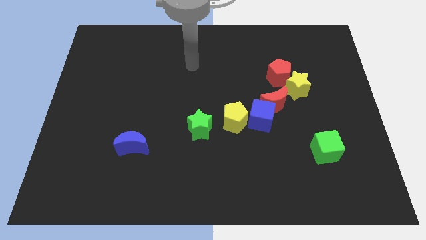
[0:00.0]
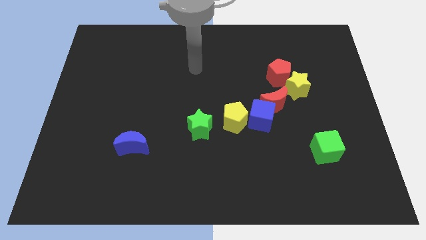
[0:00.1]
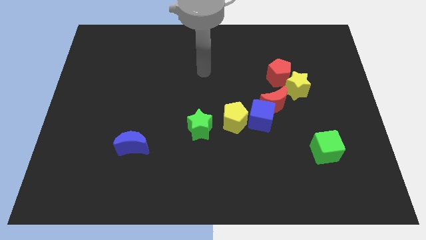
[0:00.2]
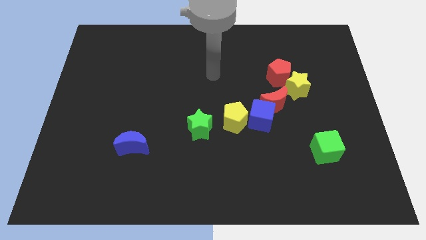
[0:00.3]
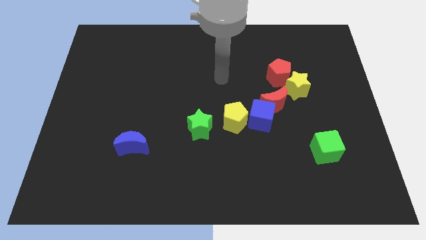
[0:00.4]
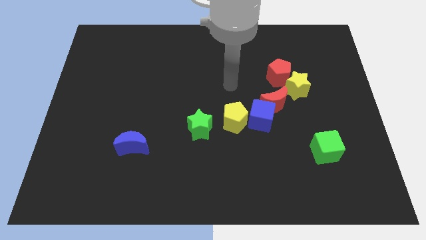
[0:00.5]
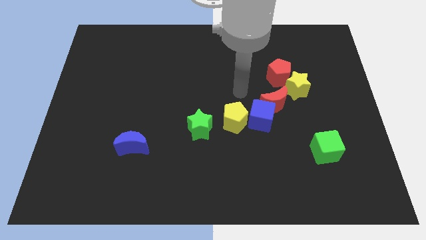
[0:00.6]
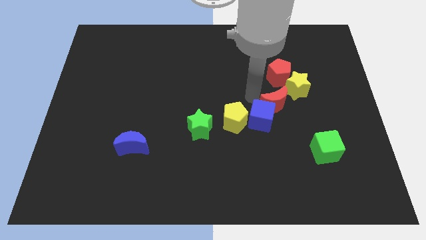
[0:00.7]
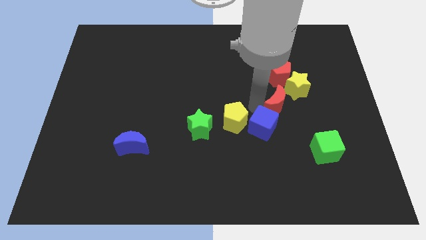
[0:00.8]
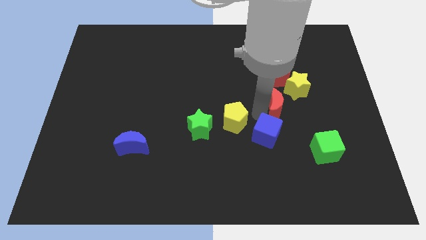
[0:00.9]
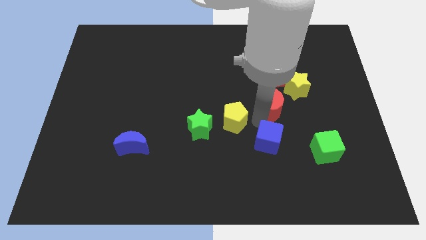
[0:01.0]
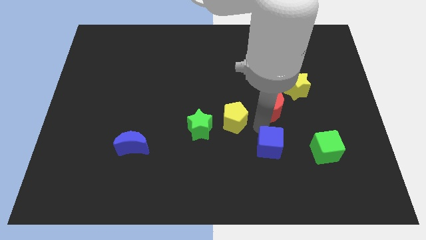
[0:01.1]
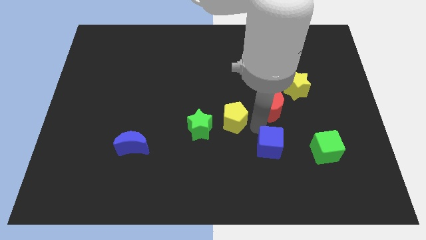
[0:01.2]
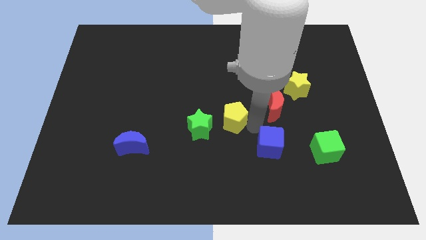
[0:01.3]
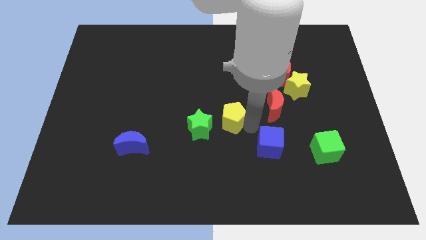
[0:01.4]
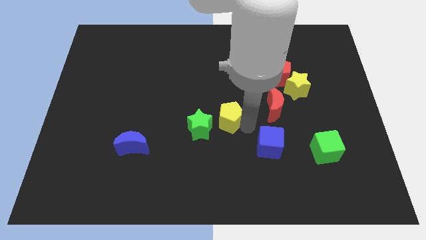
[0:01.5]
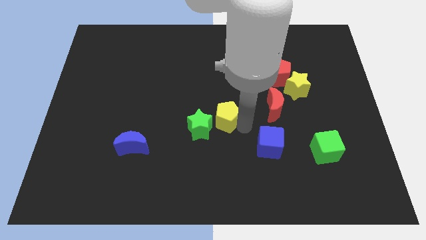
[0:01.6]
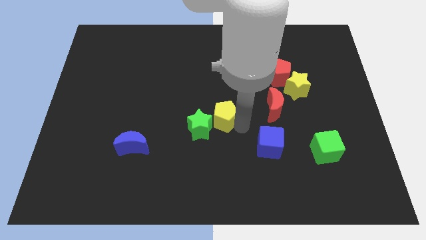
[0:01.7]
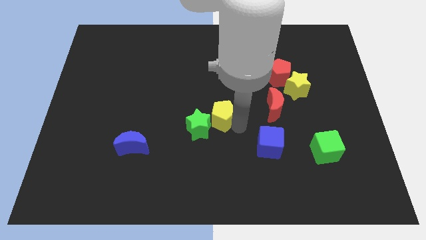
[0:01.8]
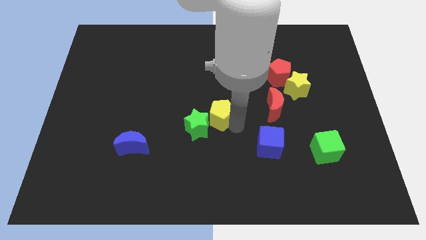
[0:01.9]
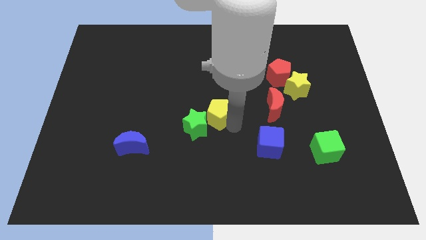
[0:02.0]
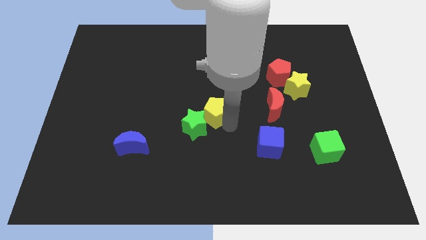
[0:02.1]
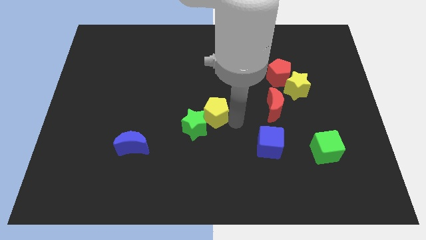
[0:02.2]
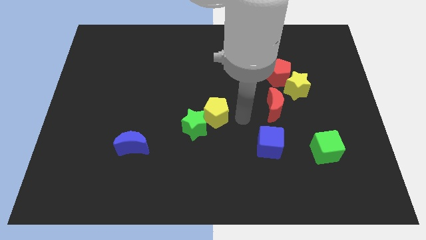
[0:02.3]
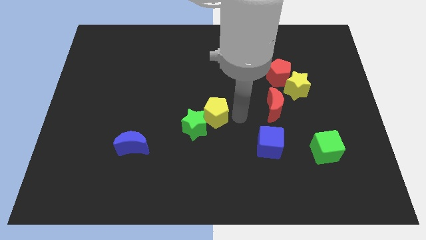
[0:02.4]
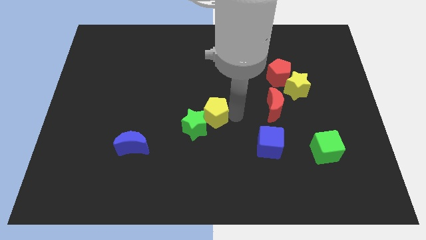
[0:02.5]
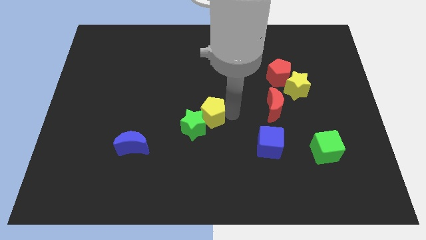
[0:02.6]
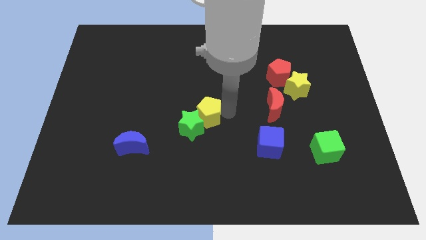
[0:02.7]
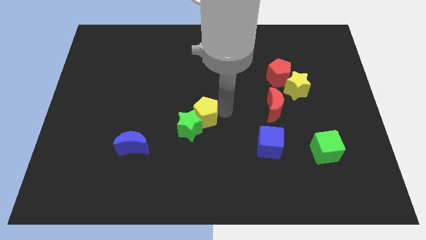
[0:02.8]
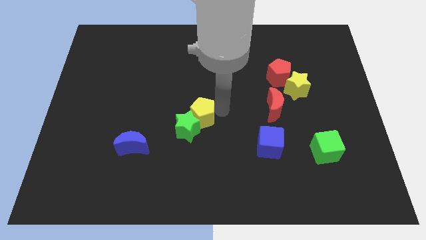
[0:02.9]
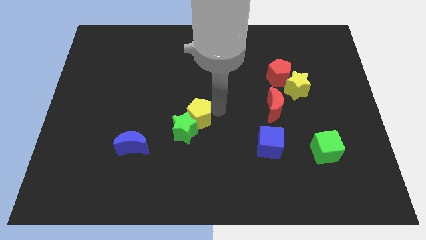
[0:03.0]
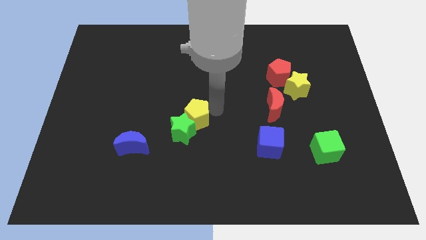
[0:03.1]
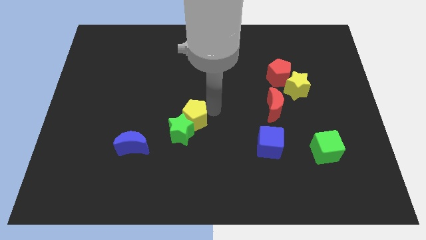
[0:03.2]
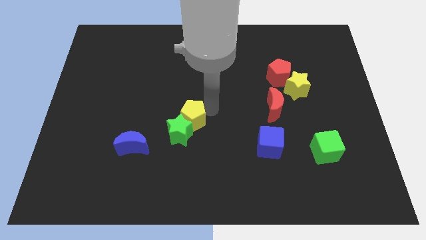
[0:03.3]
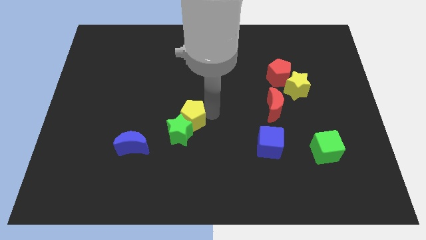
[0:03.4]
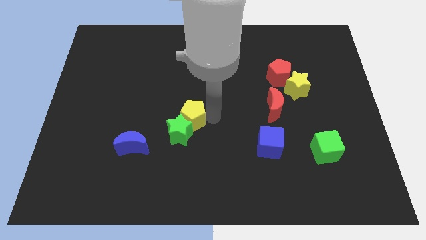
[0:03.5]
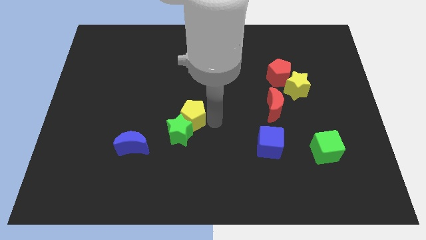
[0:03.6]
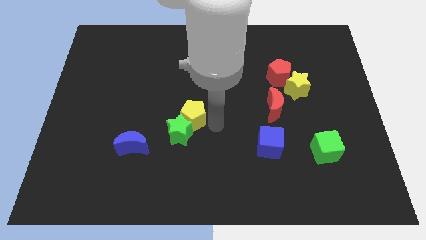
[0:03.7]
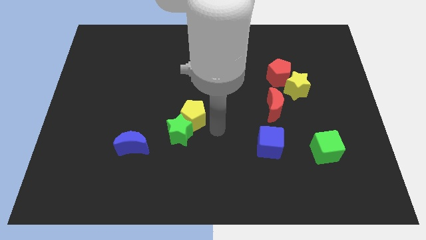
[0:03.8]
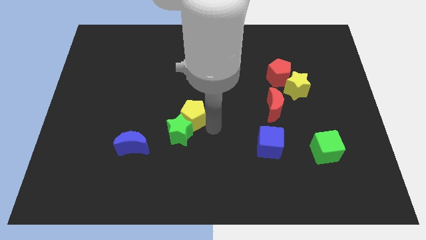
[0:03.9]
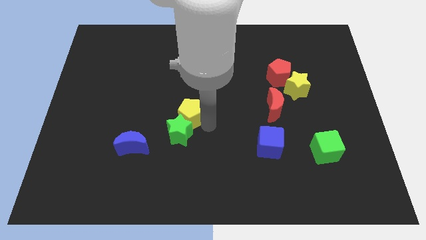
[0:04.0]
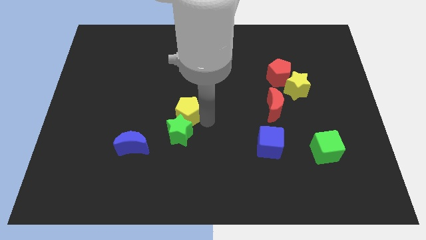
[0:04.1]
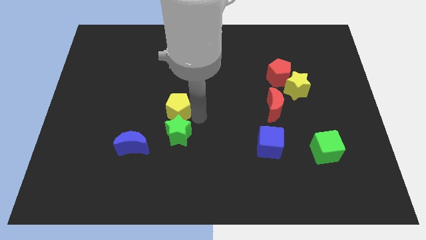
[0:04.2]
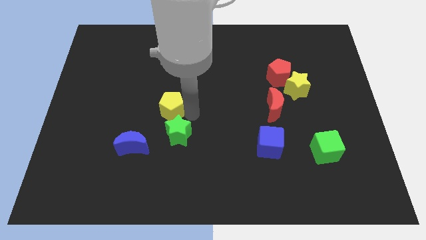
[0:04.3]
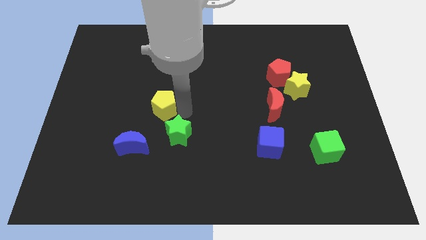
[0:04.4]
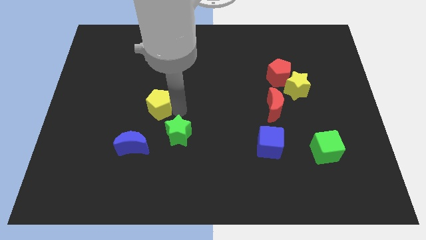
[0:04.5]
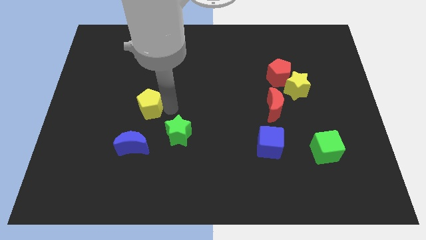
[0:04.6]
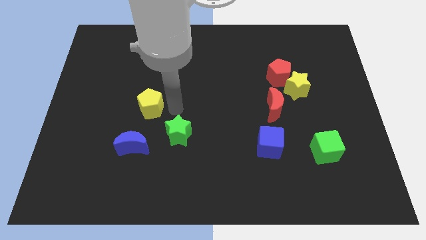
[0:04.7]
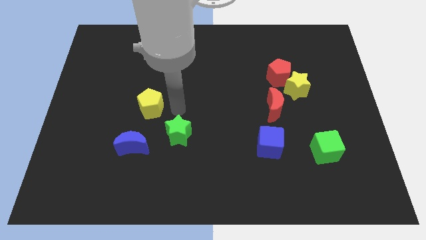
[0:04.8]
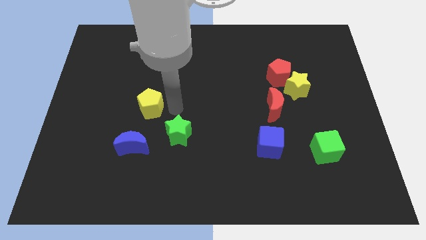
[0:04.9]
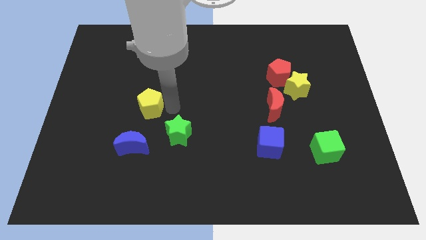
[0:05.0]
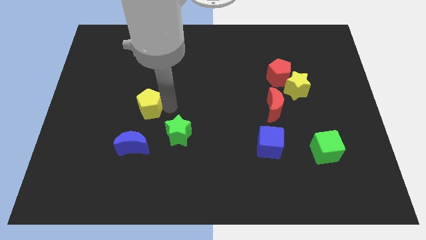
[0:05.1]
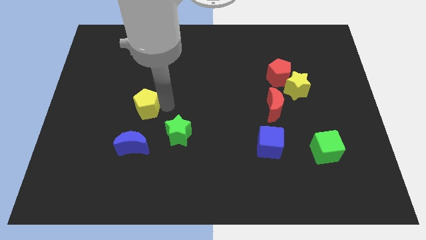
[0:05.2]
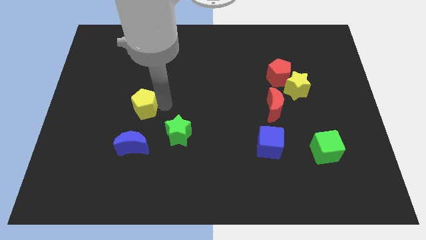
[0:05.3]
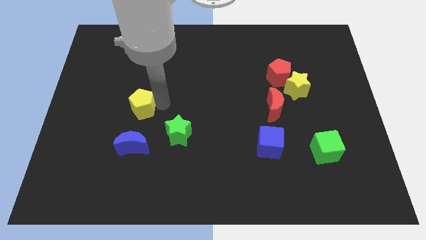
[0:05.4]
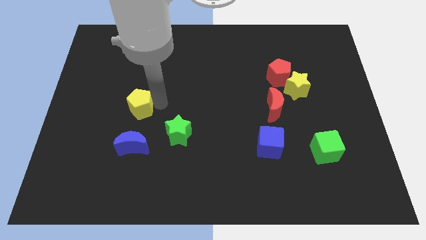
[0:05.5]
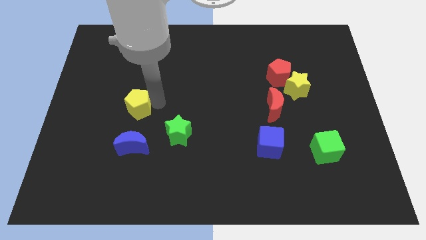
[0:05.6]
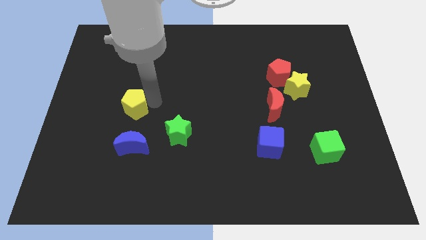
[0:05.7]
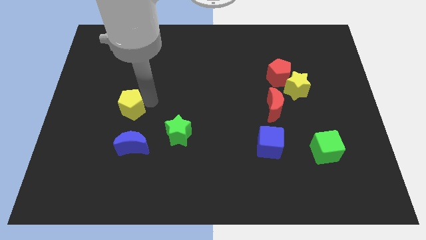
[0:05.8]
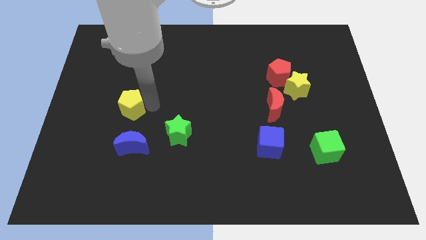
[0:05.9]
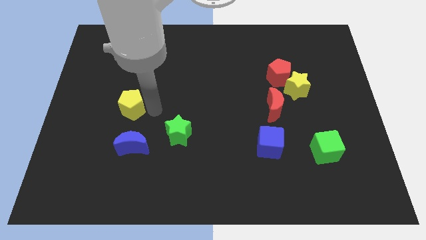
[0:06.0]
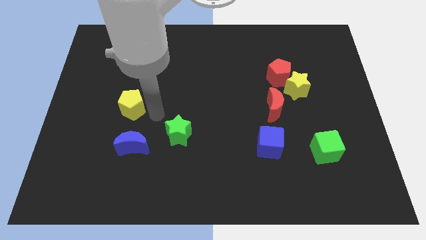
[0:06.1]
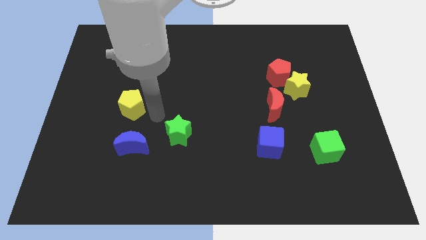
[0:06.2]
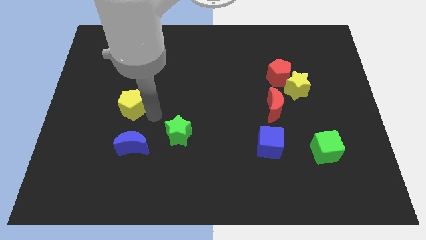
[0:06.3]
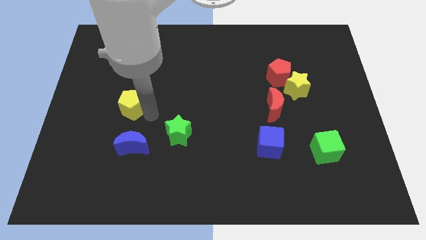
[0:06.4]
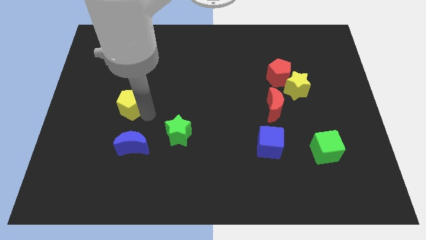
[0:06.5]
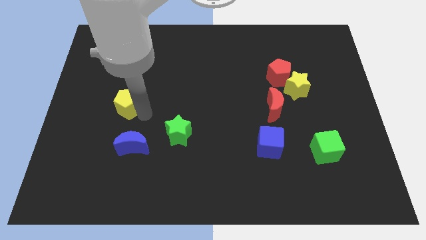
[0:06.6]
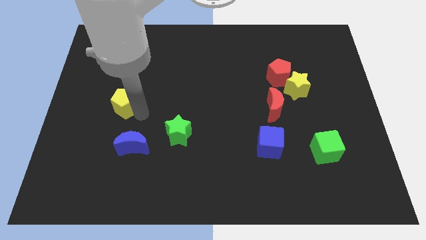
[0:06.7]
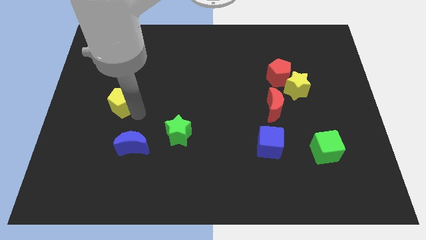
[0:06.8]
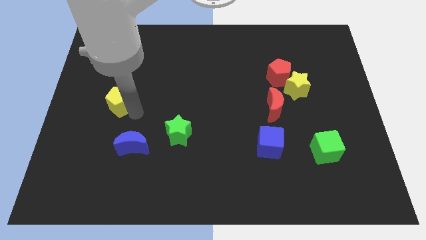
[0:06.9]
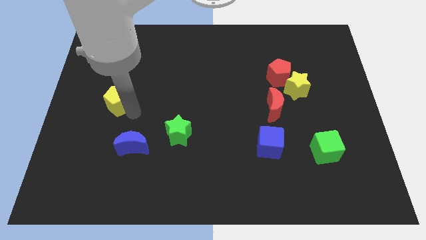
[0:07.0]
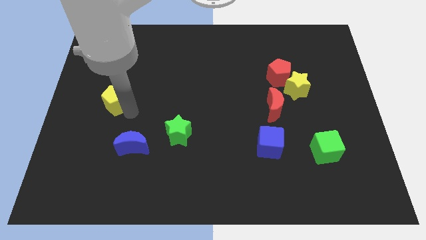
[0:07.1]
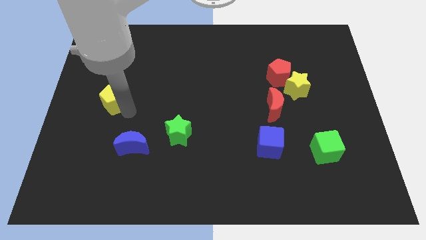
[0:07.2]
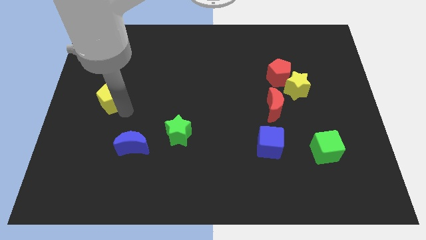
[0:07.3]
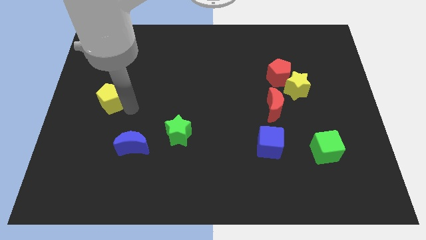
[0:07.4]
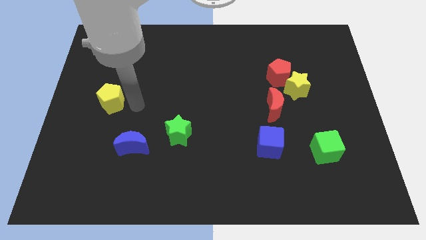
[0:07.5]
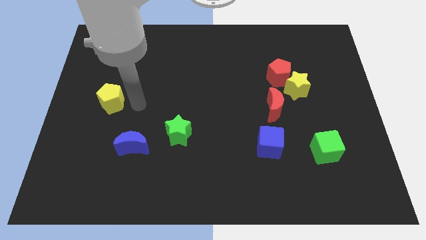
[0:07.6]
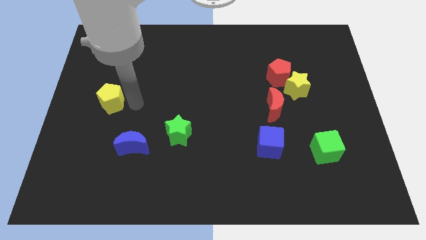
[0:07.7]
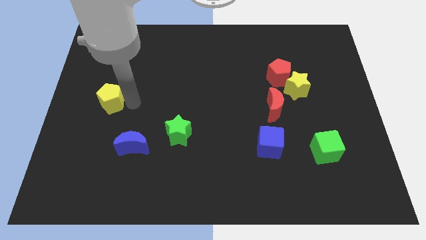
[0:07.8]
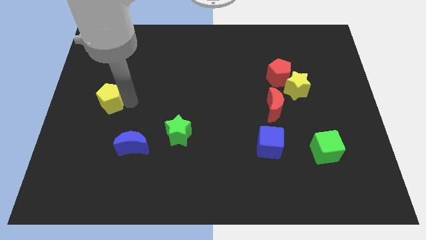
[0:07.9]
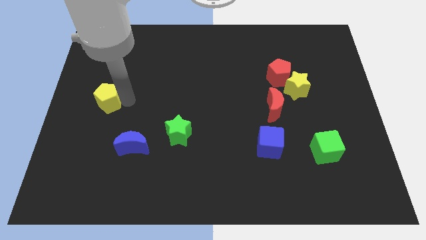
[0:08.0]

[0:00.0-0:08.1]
push the yellow pentagon to the left side
